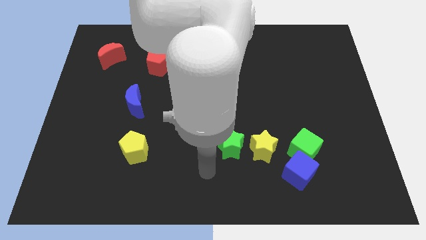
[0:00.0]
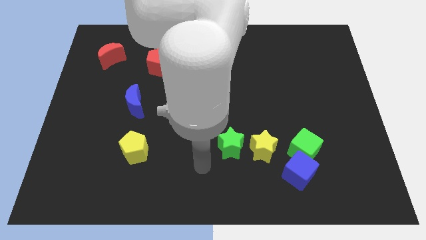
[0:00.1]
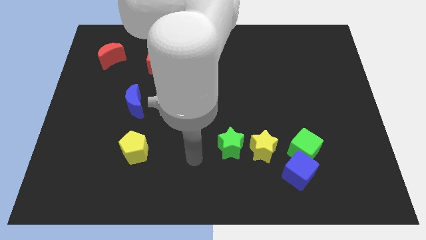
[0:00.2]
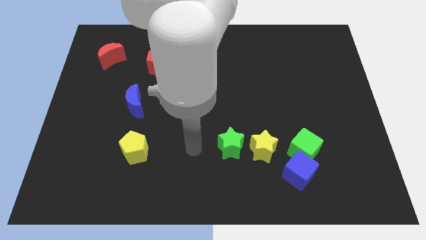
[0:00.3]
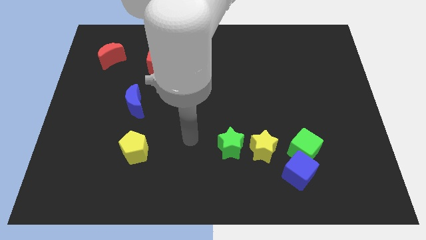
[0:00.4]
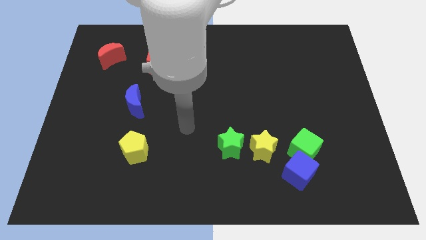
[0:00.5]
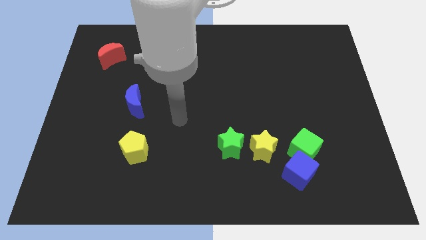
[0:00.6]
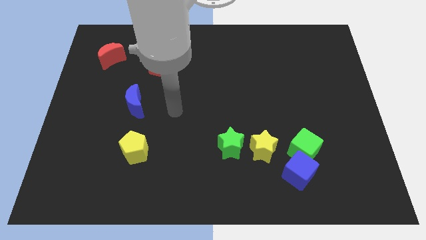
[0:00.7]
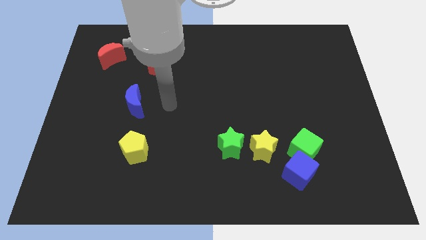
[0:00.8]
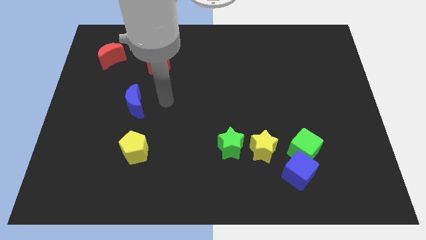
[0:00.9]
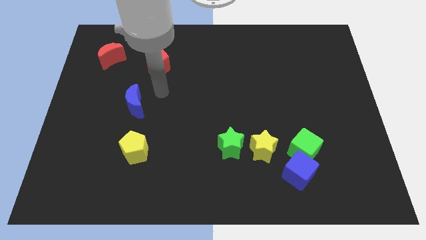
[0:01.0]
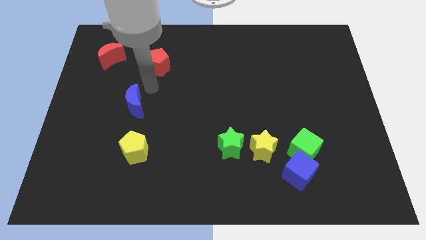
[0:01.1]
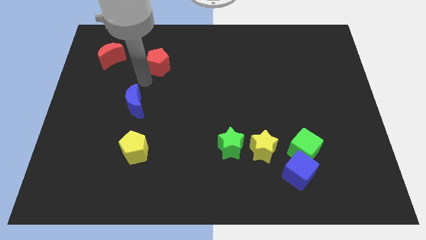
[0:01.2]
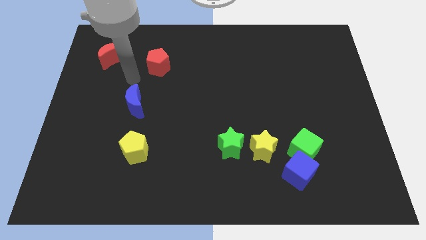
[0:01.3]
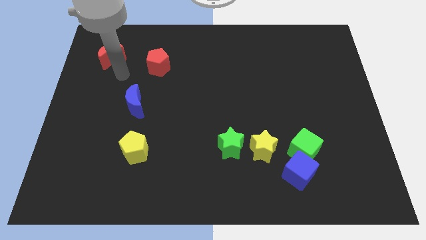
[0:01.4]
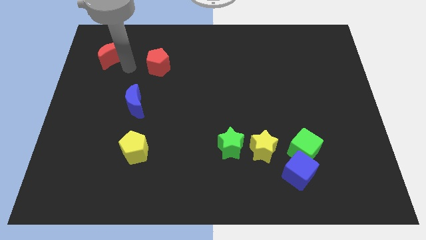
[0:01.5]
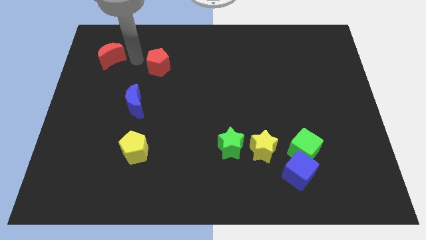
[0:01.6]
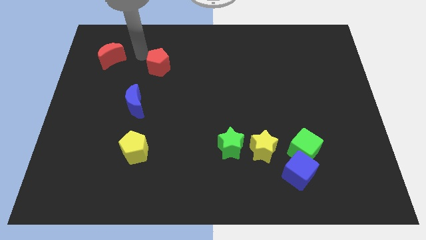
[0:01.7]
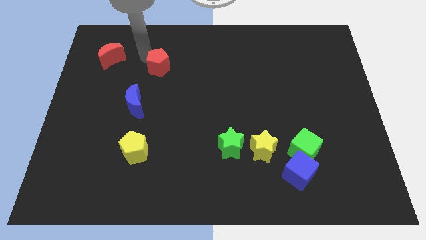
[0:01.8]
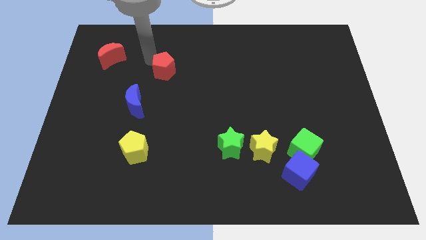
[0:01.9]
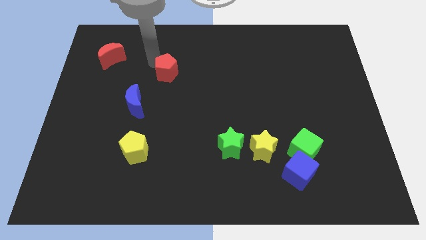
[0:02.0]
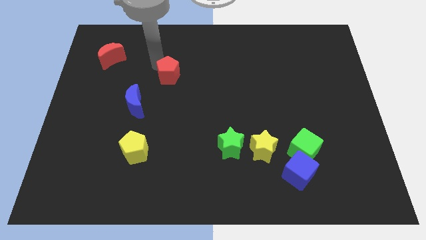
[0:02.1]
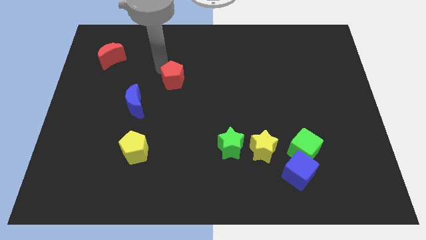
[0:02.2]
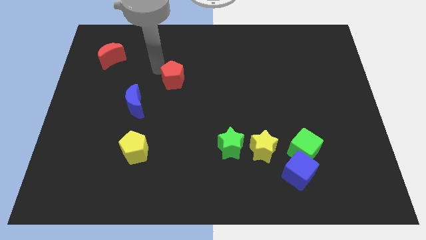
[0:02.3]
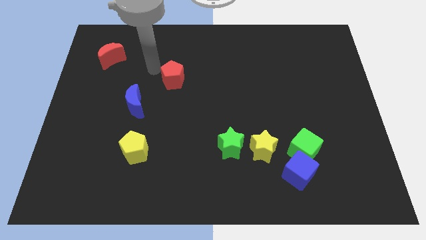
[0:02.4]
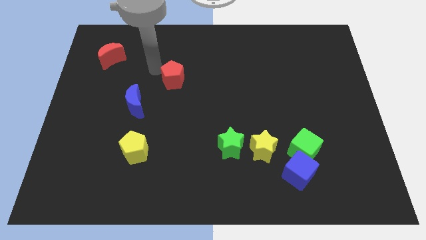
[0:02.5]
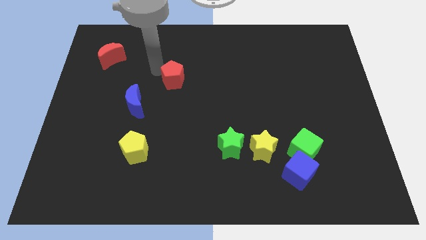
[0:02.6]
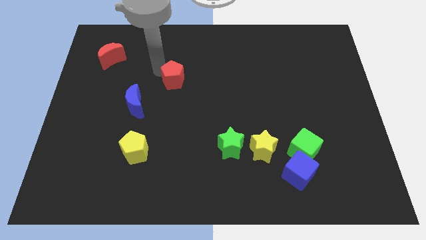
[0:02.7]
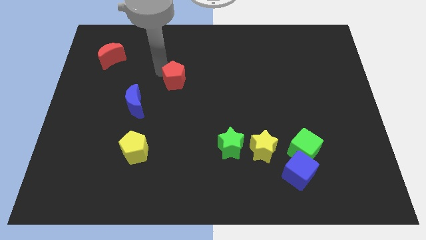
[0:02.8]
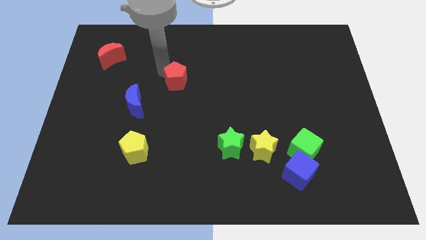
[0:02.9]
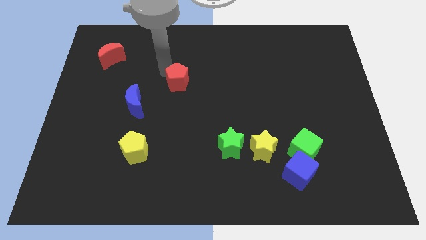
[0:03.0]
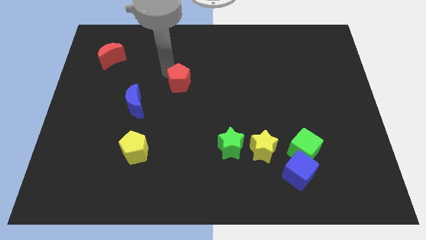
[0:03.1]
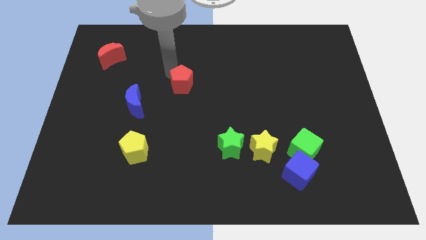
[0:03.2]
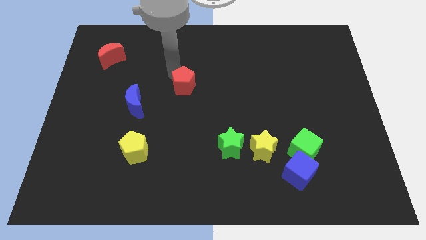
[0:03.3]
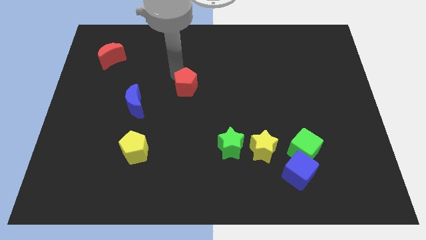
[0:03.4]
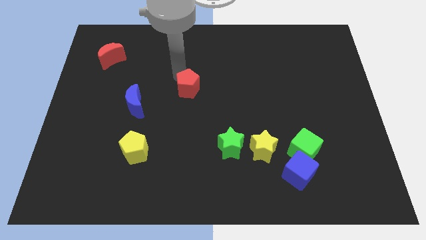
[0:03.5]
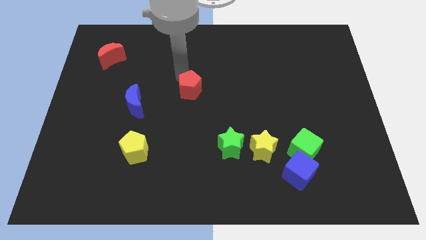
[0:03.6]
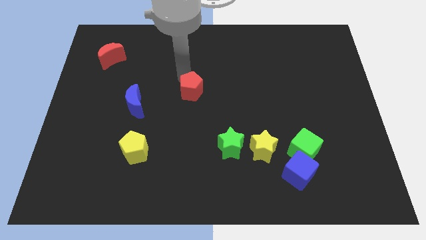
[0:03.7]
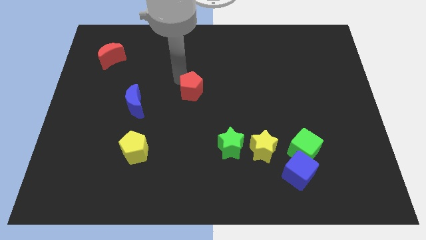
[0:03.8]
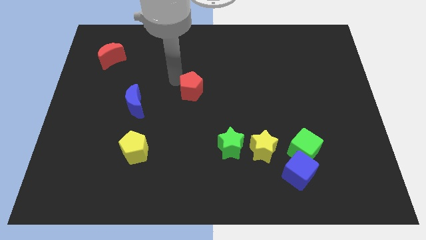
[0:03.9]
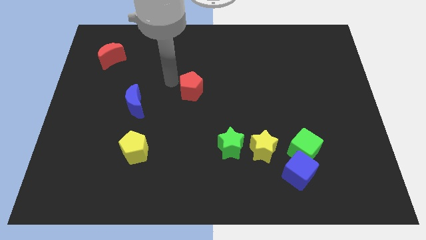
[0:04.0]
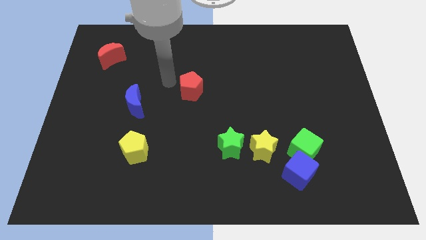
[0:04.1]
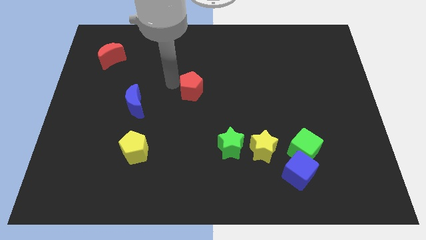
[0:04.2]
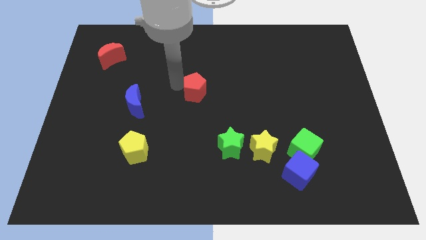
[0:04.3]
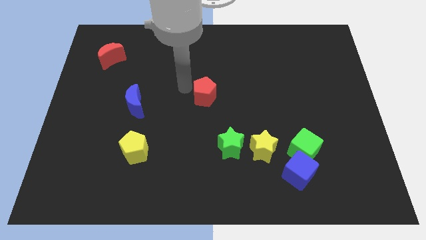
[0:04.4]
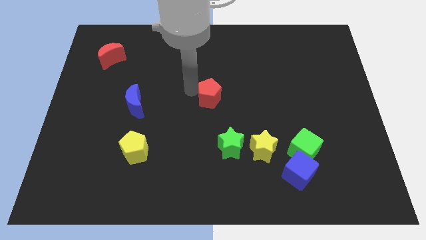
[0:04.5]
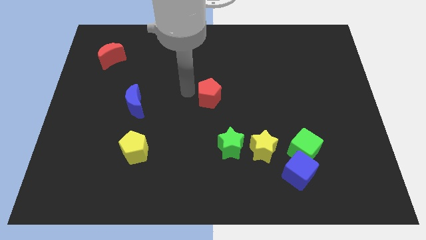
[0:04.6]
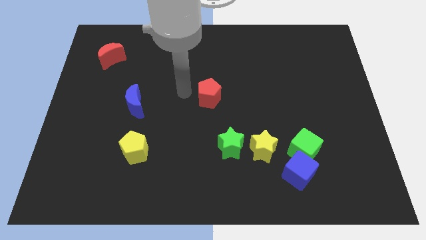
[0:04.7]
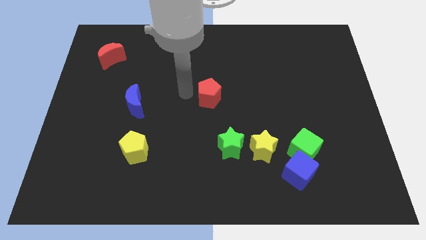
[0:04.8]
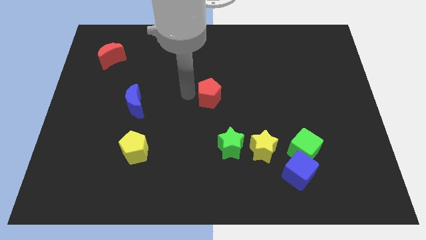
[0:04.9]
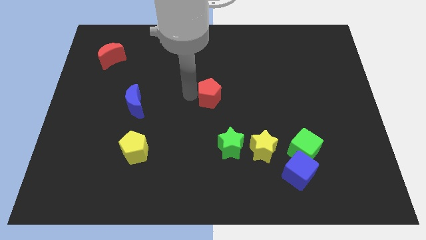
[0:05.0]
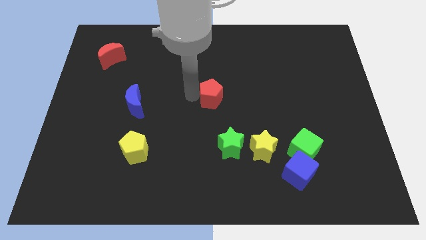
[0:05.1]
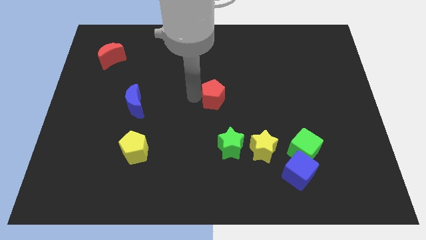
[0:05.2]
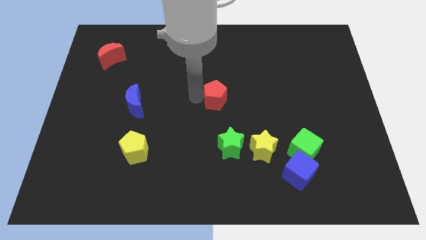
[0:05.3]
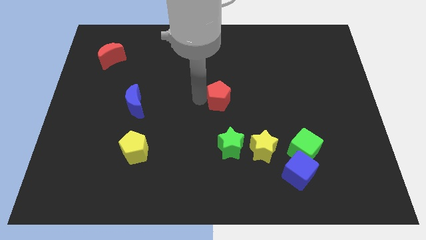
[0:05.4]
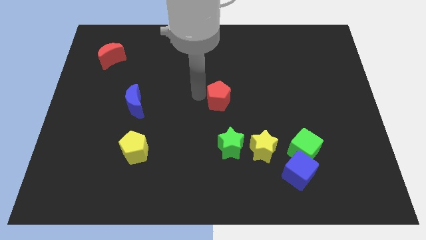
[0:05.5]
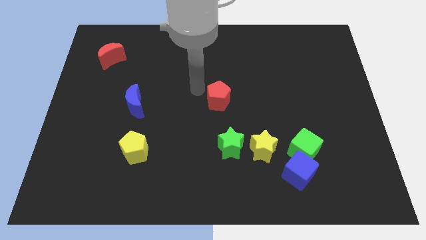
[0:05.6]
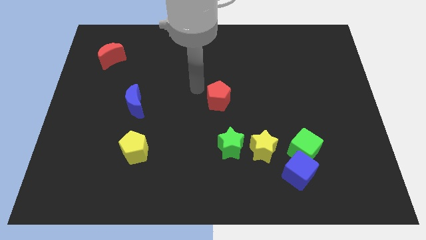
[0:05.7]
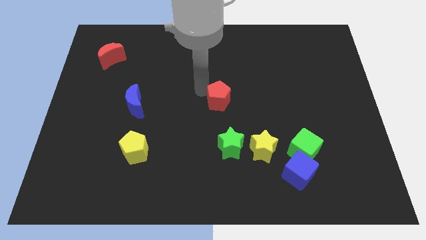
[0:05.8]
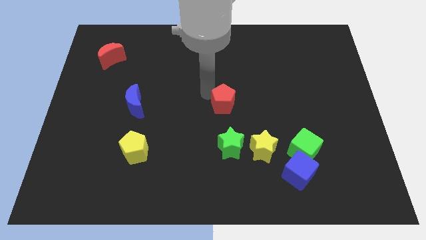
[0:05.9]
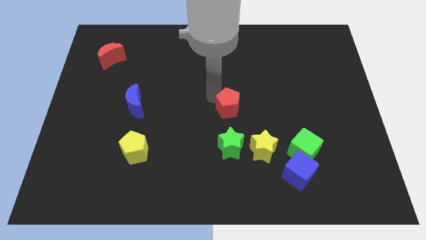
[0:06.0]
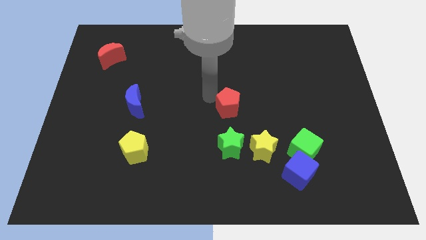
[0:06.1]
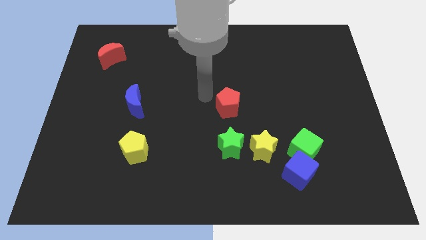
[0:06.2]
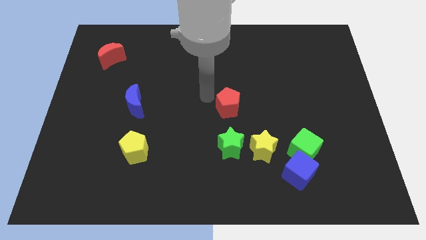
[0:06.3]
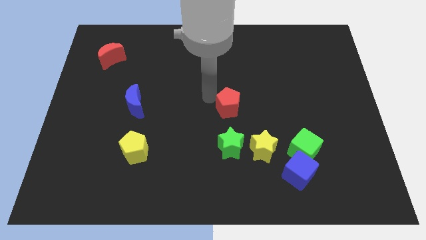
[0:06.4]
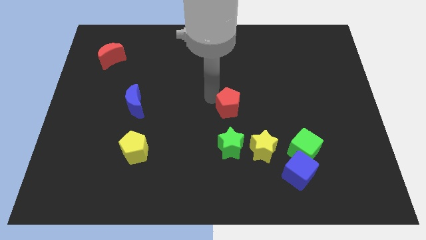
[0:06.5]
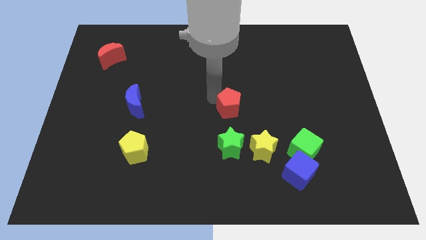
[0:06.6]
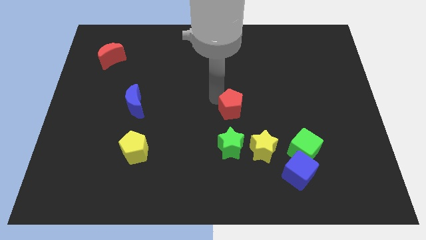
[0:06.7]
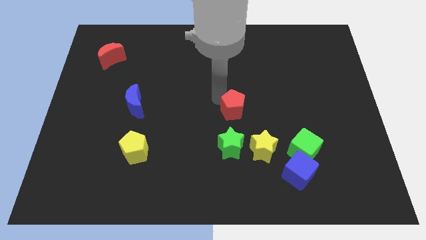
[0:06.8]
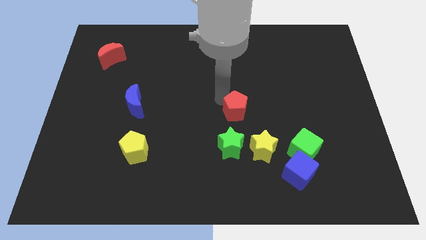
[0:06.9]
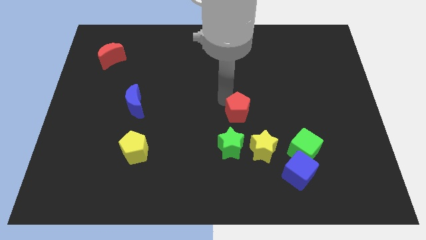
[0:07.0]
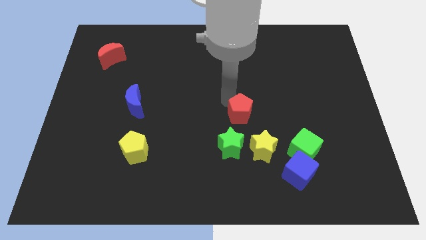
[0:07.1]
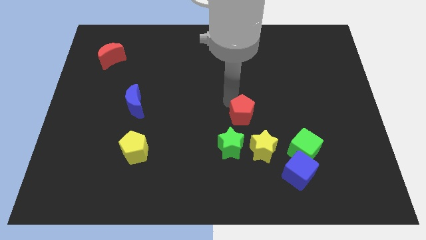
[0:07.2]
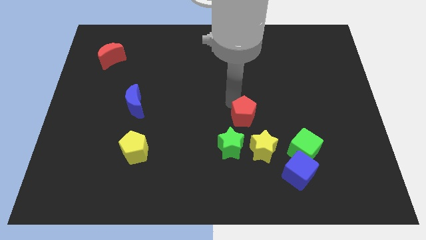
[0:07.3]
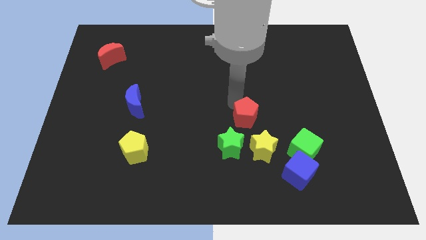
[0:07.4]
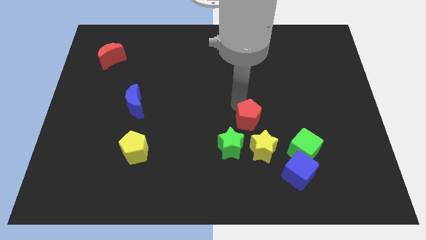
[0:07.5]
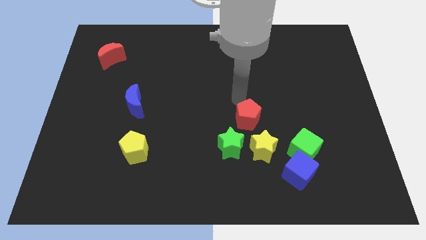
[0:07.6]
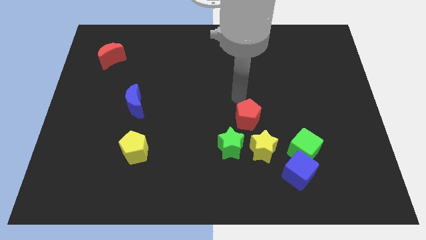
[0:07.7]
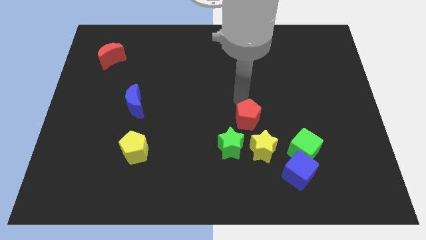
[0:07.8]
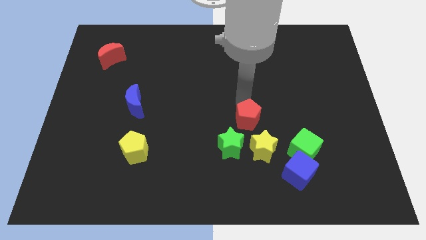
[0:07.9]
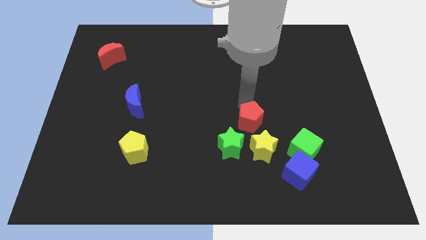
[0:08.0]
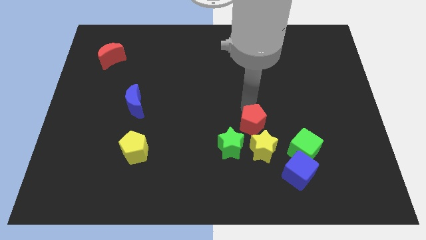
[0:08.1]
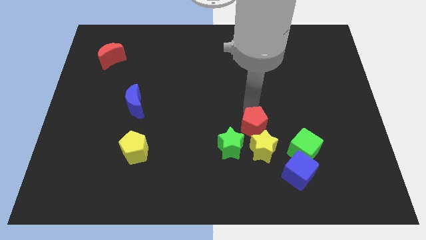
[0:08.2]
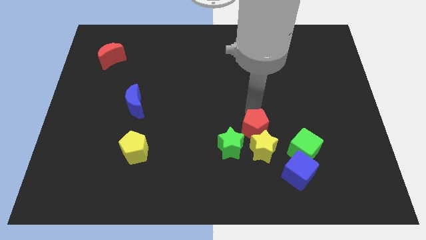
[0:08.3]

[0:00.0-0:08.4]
push the red pentagon towards the yellow star
